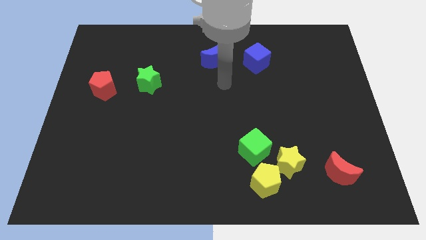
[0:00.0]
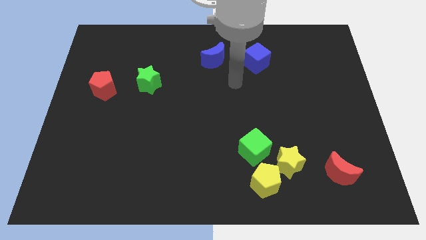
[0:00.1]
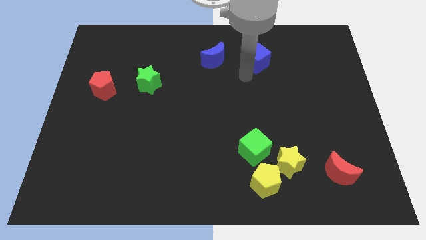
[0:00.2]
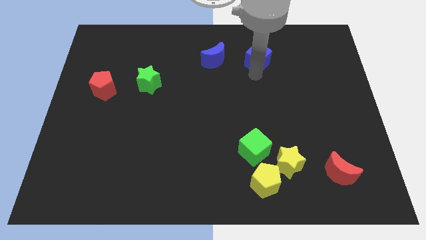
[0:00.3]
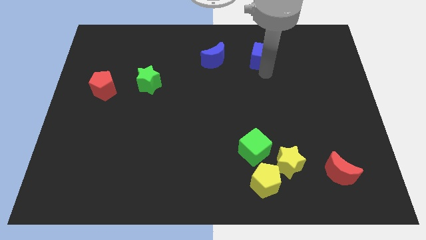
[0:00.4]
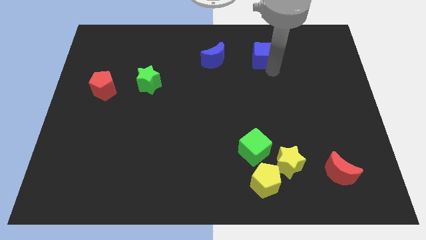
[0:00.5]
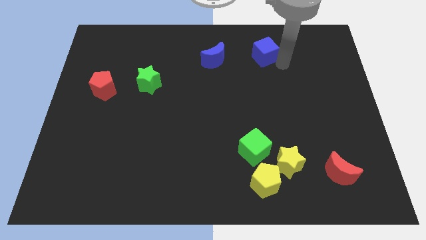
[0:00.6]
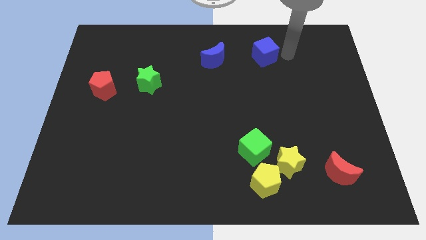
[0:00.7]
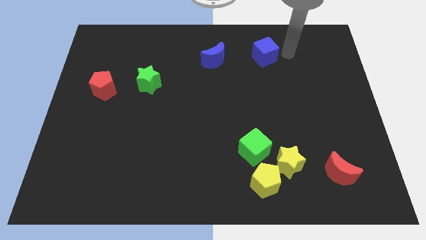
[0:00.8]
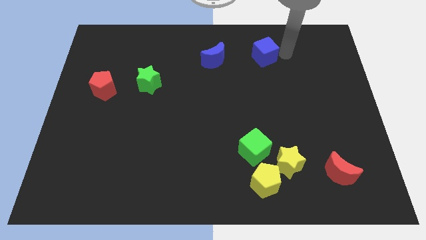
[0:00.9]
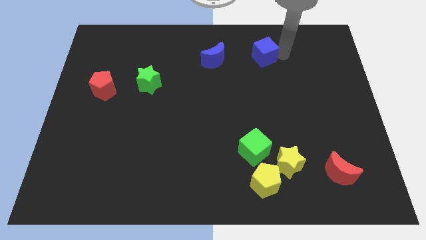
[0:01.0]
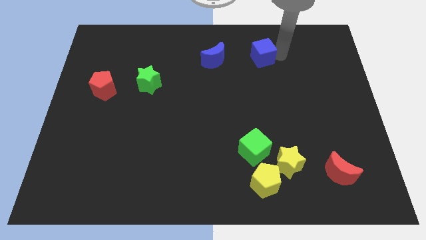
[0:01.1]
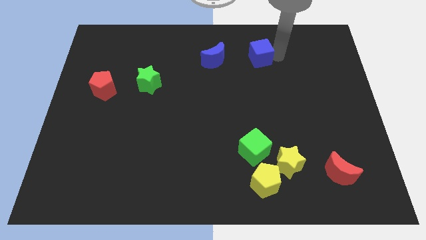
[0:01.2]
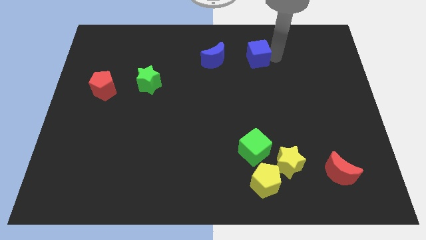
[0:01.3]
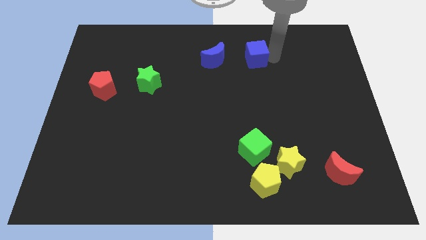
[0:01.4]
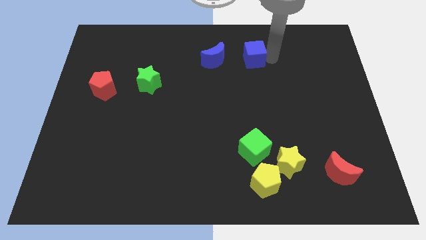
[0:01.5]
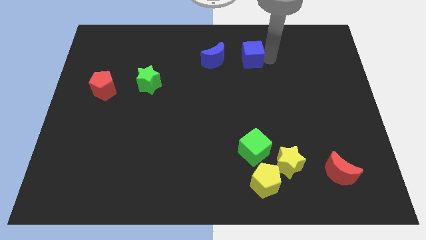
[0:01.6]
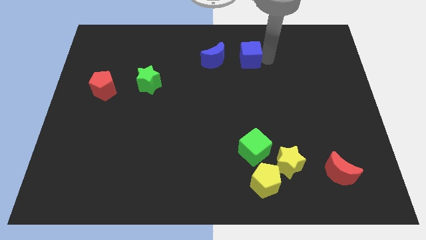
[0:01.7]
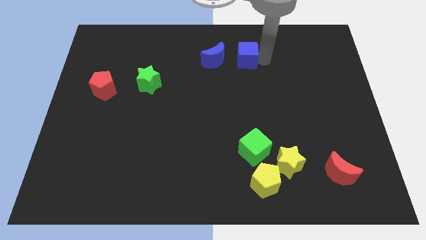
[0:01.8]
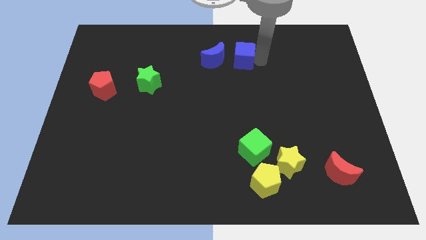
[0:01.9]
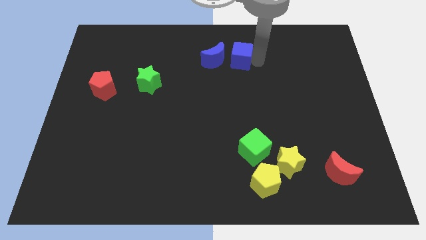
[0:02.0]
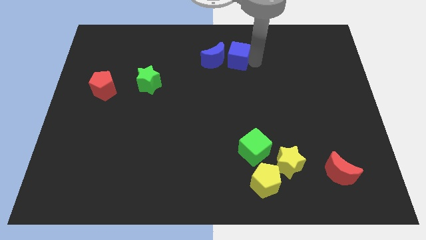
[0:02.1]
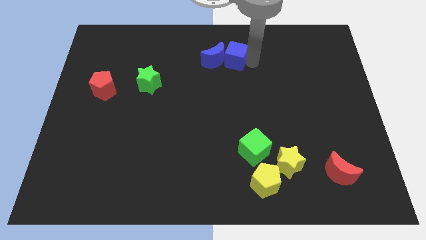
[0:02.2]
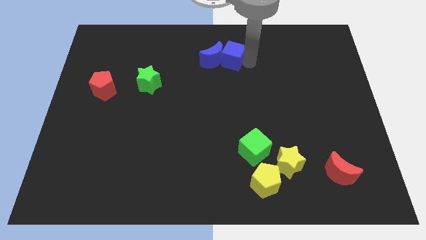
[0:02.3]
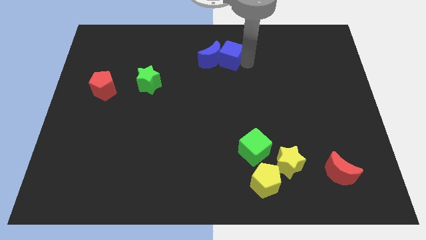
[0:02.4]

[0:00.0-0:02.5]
slightly move the blue cube to the left

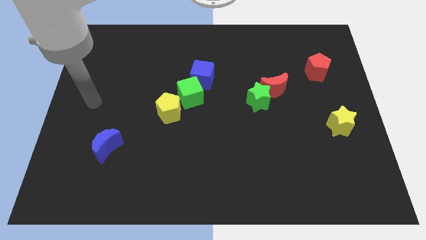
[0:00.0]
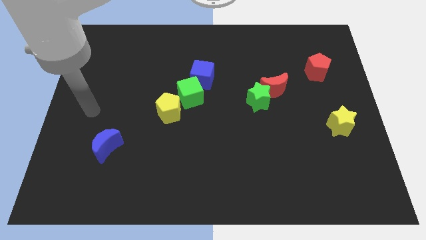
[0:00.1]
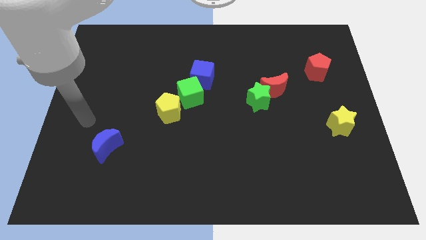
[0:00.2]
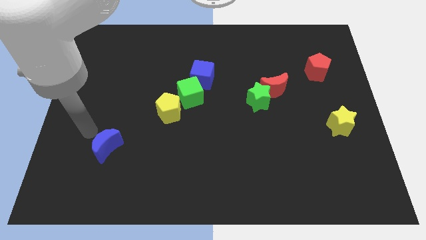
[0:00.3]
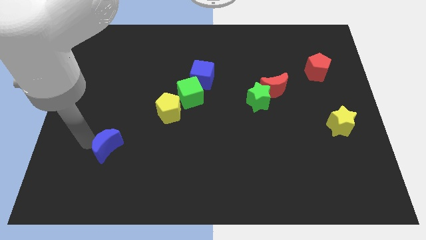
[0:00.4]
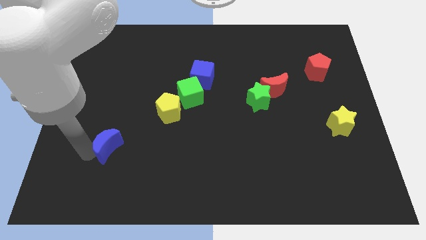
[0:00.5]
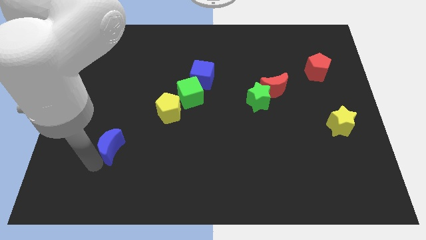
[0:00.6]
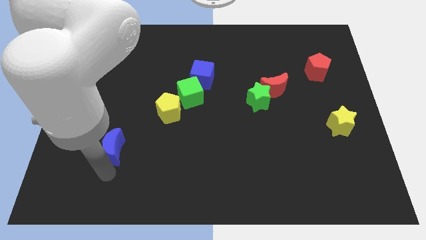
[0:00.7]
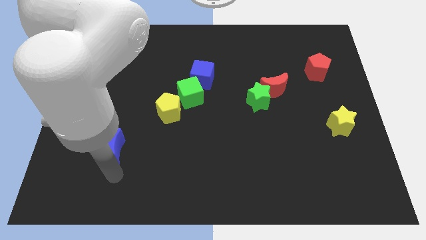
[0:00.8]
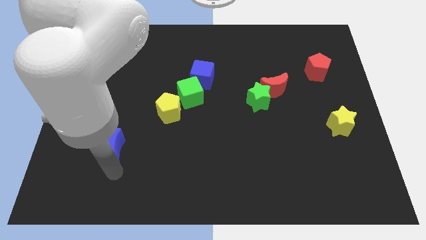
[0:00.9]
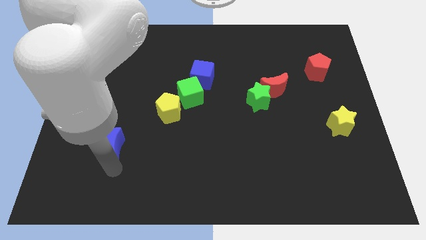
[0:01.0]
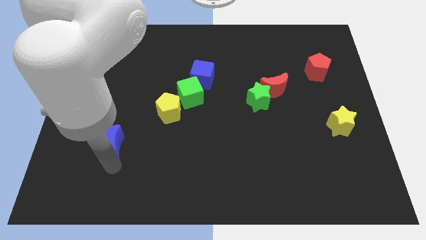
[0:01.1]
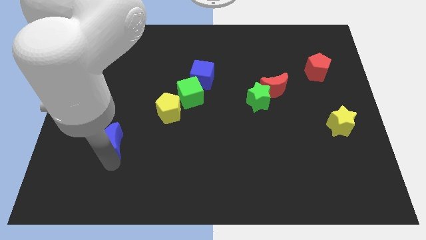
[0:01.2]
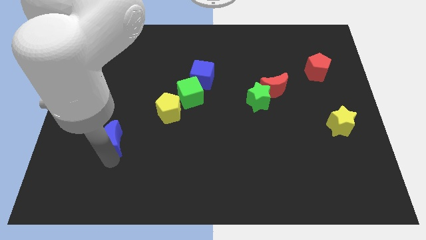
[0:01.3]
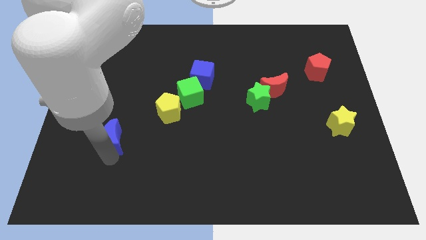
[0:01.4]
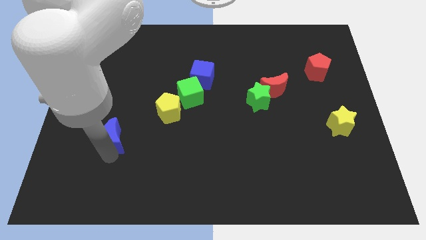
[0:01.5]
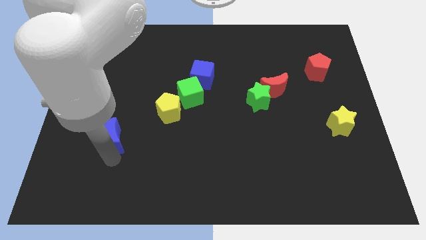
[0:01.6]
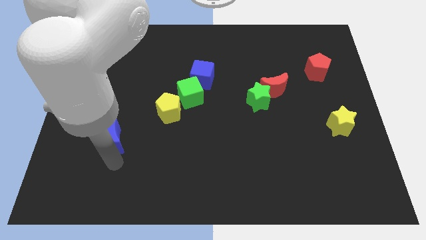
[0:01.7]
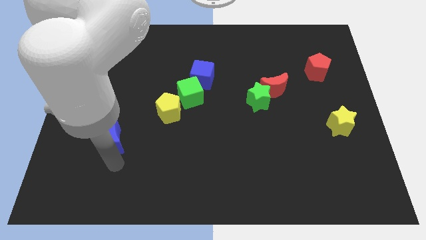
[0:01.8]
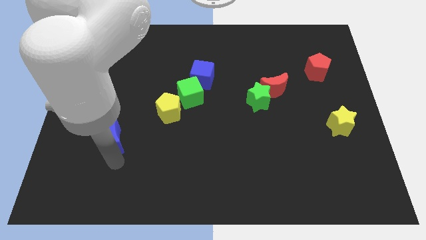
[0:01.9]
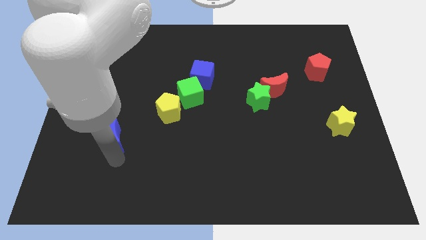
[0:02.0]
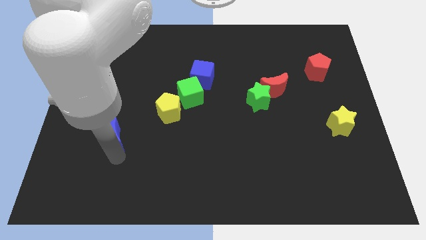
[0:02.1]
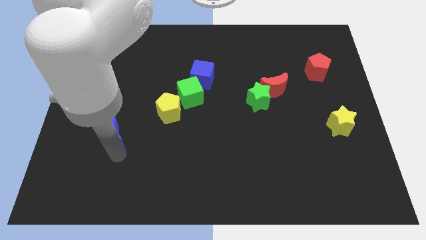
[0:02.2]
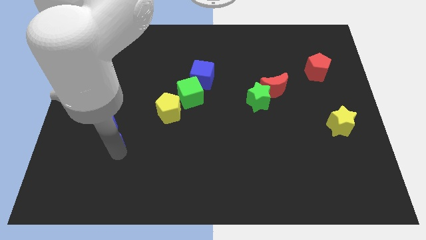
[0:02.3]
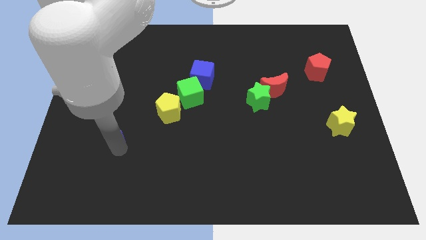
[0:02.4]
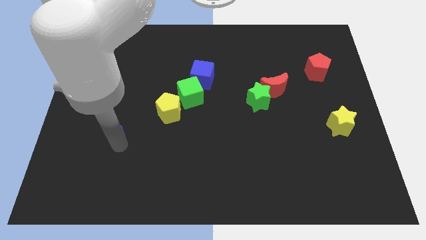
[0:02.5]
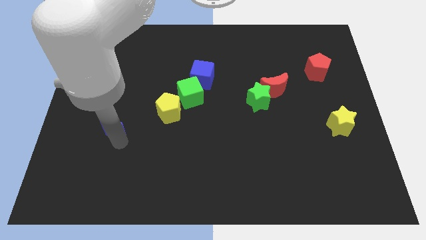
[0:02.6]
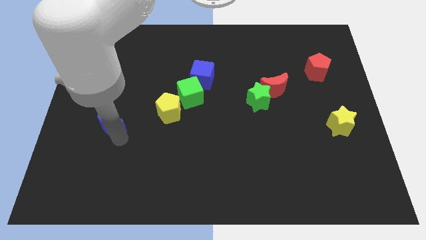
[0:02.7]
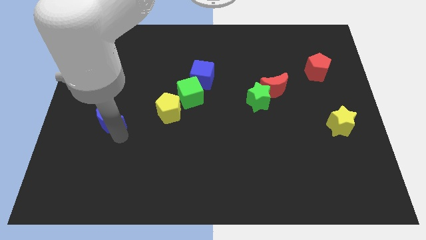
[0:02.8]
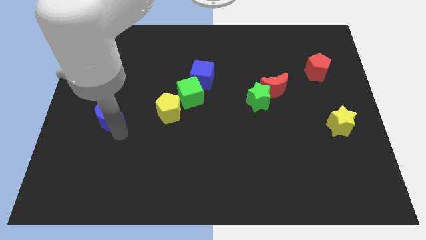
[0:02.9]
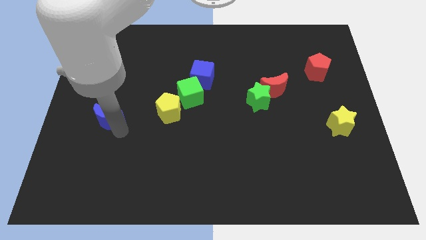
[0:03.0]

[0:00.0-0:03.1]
move the blue moon up a little

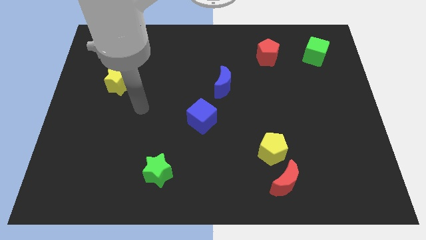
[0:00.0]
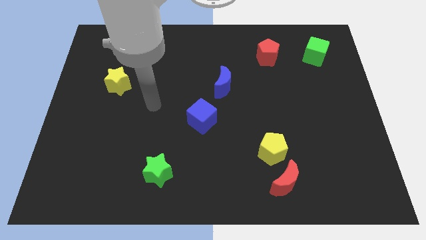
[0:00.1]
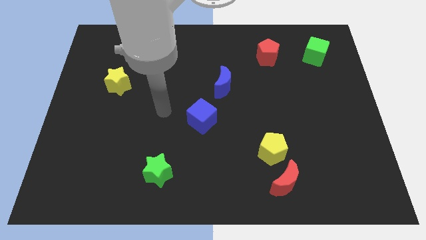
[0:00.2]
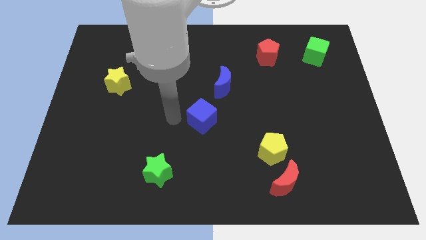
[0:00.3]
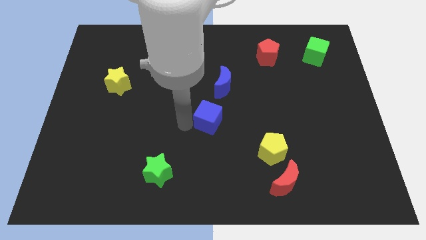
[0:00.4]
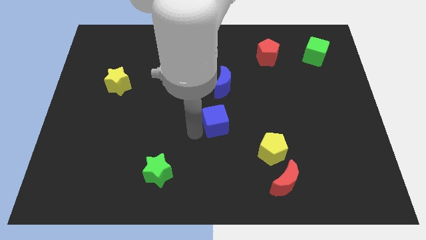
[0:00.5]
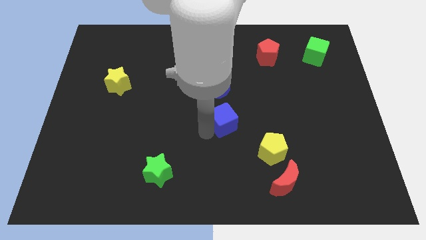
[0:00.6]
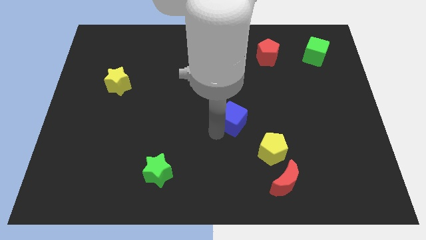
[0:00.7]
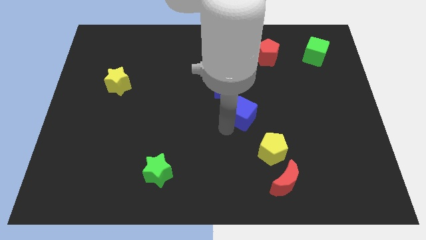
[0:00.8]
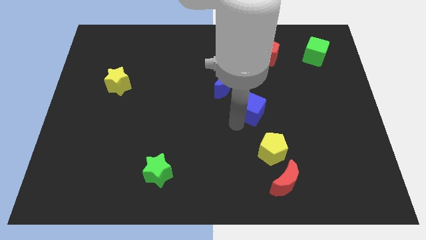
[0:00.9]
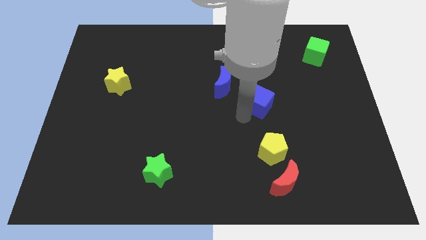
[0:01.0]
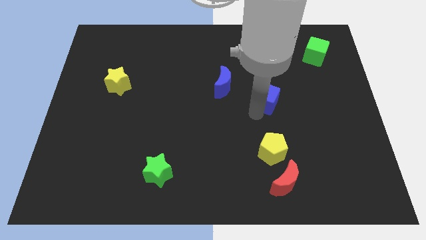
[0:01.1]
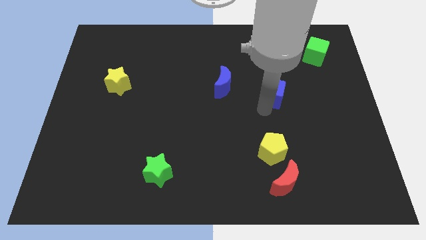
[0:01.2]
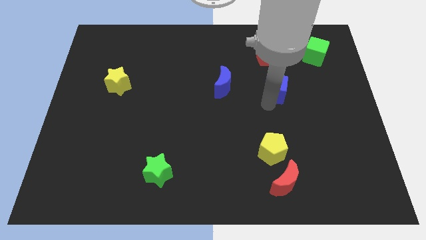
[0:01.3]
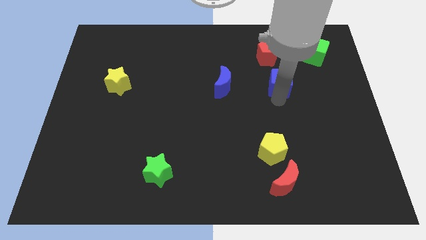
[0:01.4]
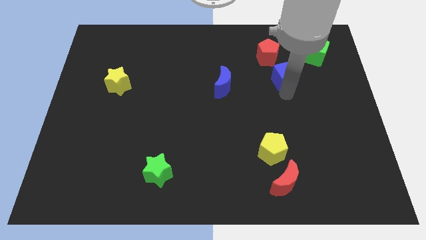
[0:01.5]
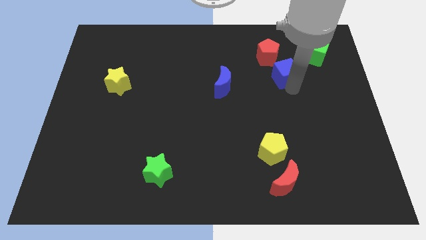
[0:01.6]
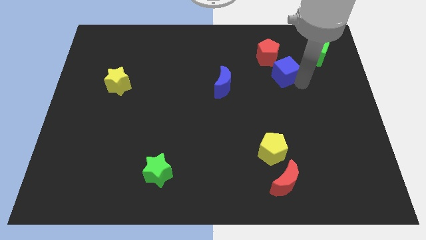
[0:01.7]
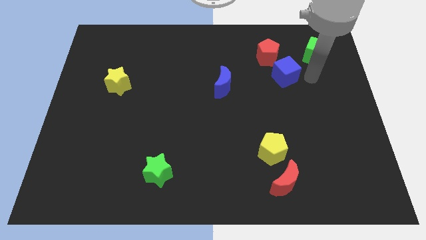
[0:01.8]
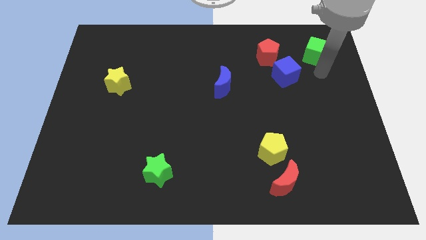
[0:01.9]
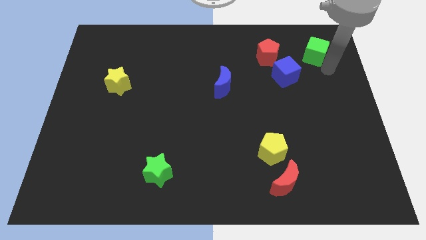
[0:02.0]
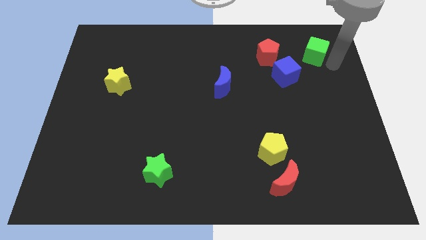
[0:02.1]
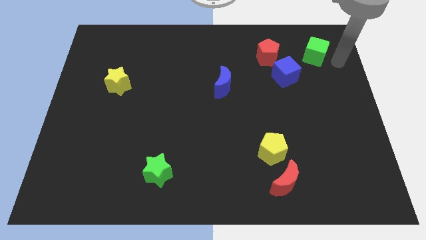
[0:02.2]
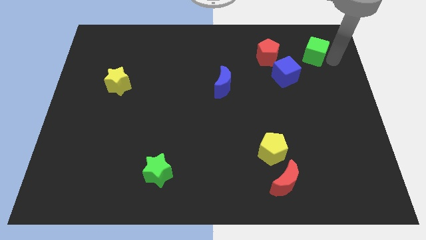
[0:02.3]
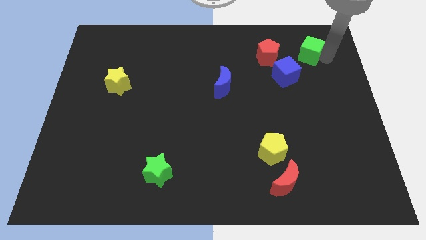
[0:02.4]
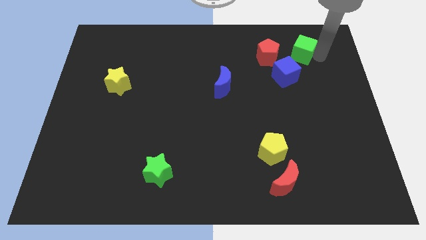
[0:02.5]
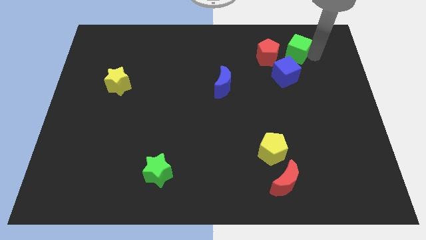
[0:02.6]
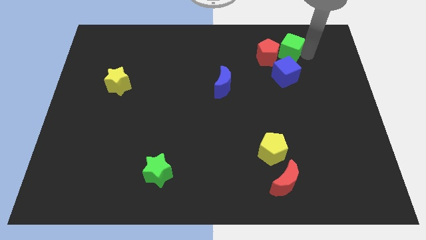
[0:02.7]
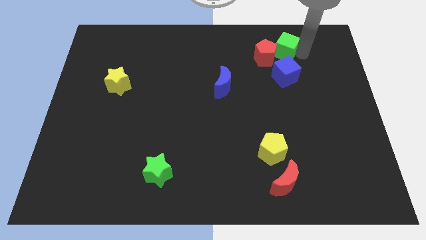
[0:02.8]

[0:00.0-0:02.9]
push the green cube left slightly
